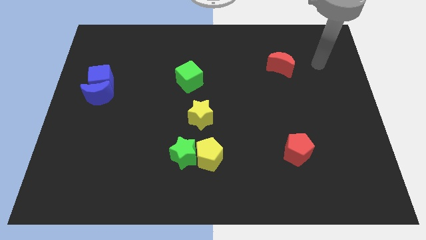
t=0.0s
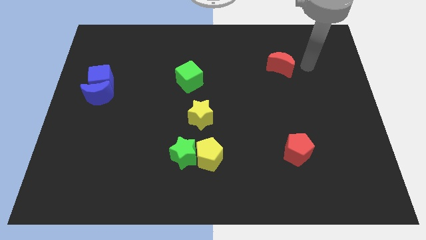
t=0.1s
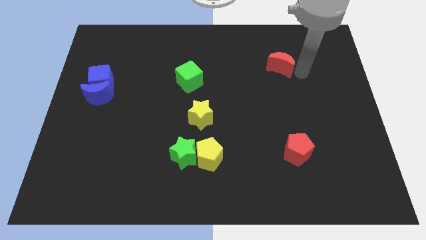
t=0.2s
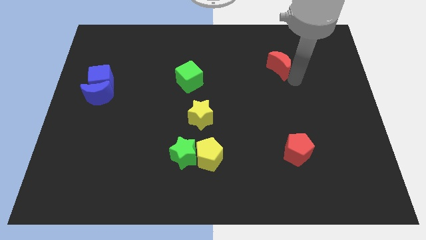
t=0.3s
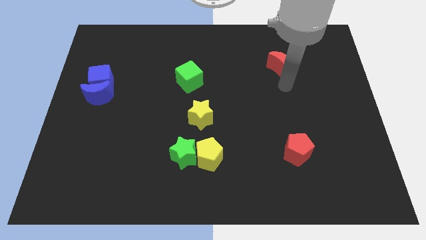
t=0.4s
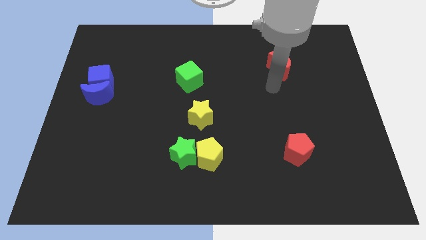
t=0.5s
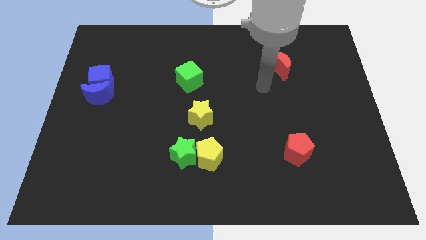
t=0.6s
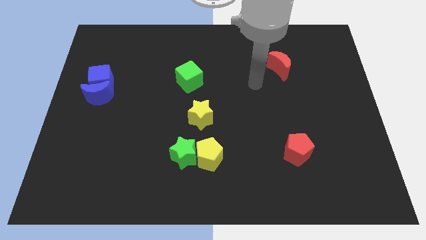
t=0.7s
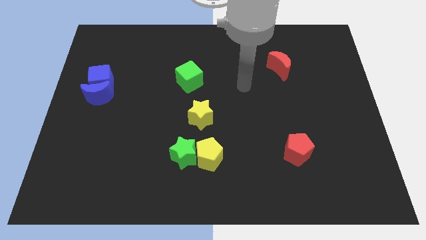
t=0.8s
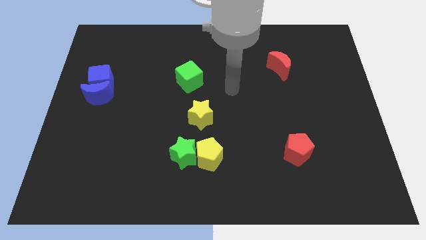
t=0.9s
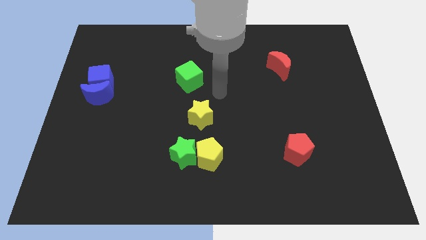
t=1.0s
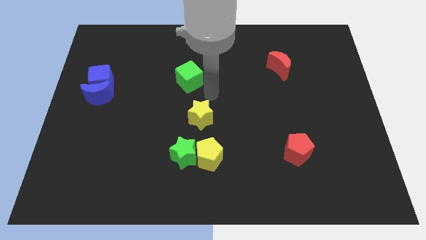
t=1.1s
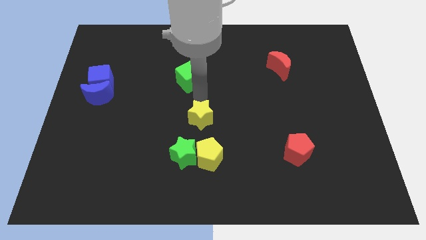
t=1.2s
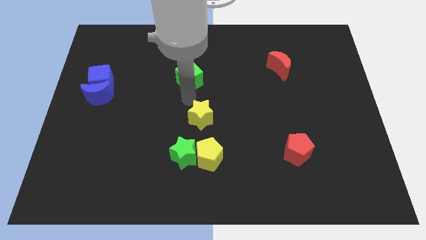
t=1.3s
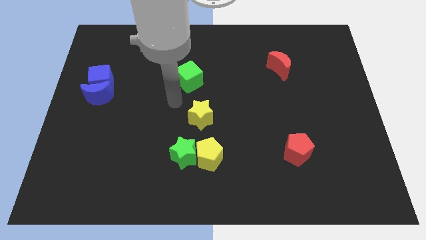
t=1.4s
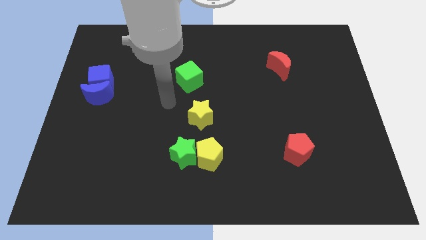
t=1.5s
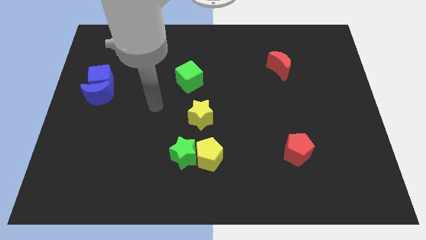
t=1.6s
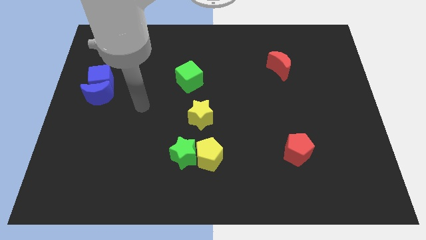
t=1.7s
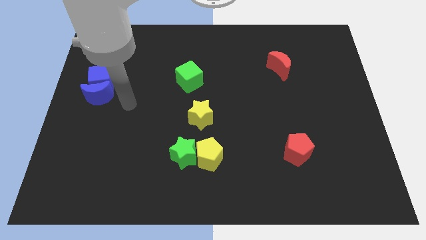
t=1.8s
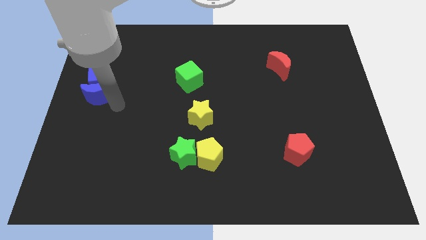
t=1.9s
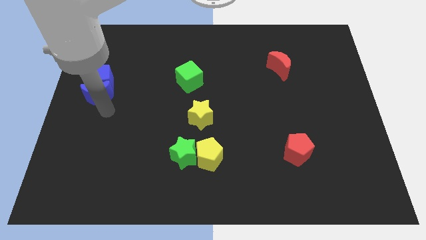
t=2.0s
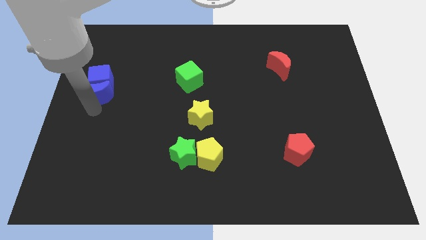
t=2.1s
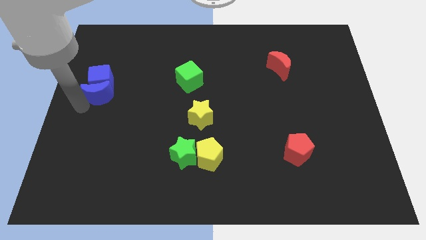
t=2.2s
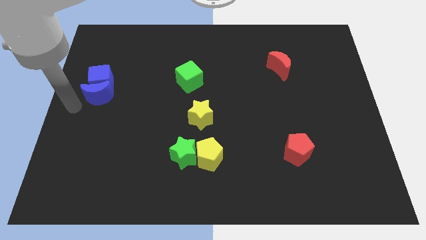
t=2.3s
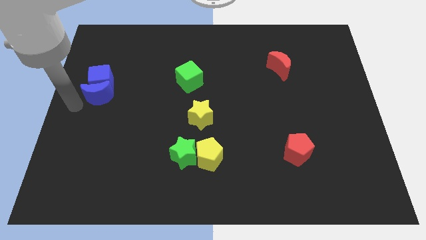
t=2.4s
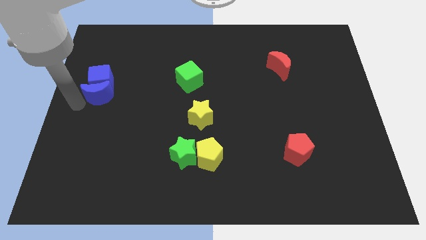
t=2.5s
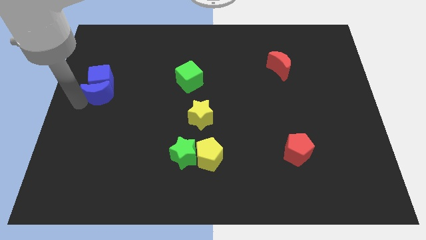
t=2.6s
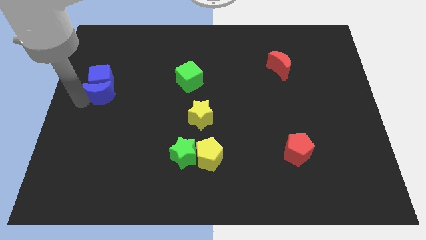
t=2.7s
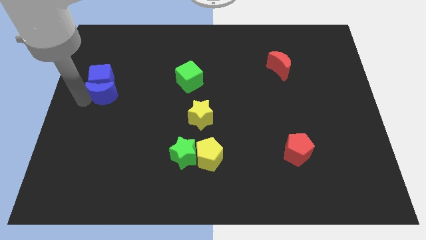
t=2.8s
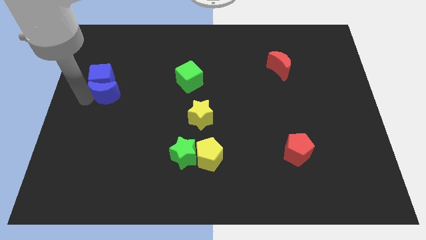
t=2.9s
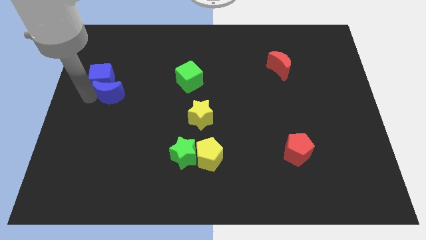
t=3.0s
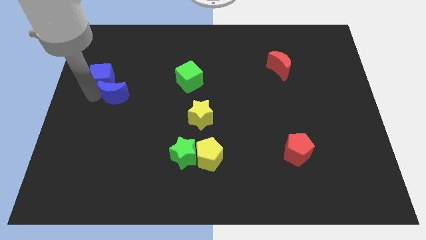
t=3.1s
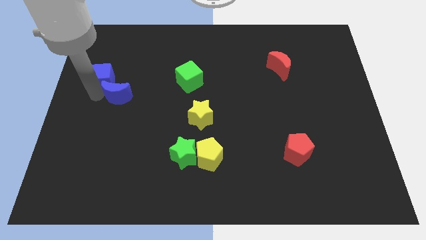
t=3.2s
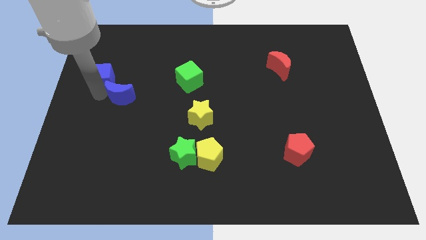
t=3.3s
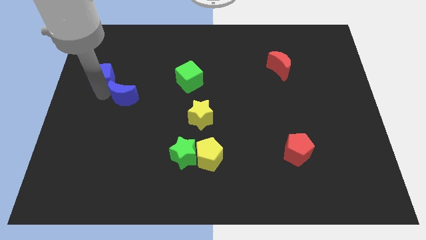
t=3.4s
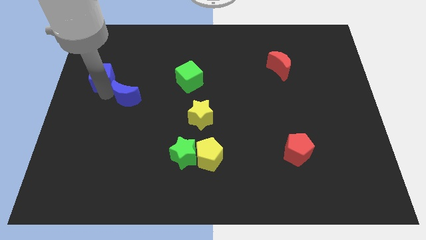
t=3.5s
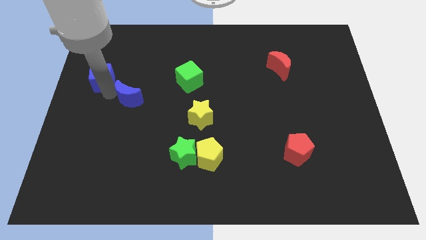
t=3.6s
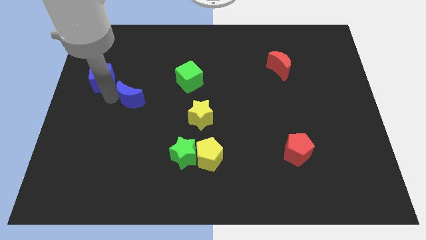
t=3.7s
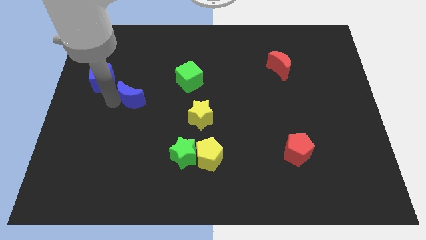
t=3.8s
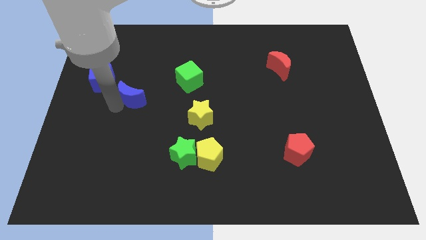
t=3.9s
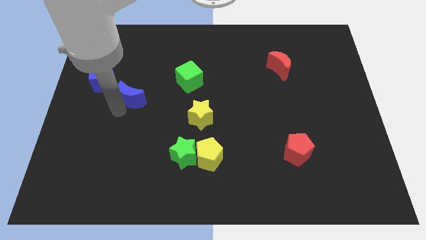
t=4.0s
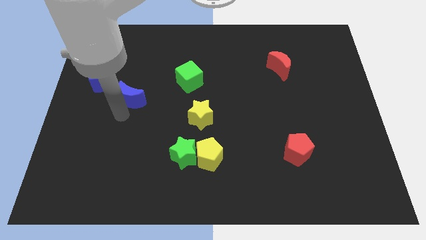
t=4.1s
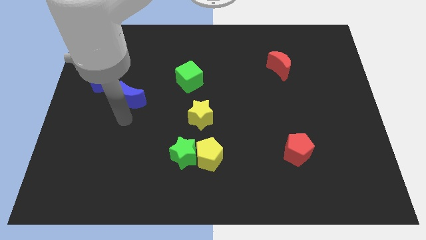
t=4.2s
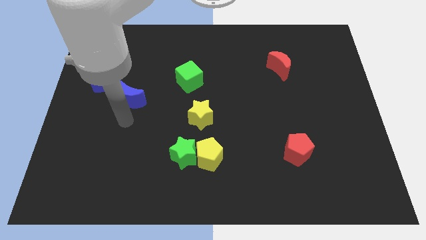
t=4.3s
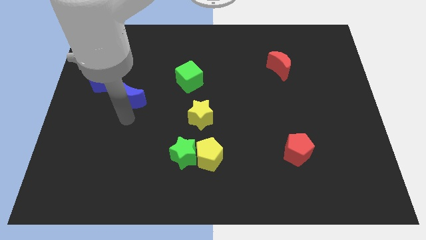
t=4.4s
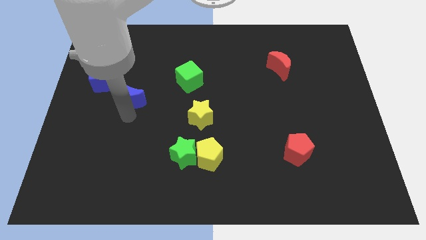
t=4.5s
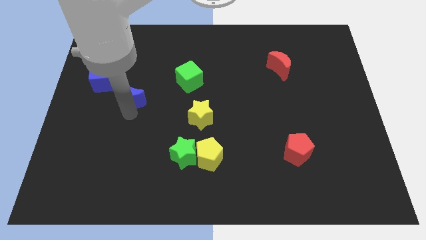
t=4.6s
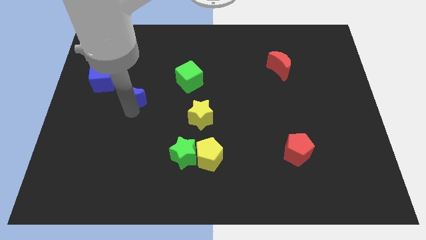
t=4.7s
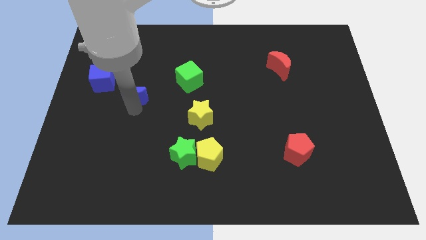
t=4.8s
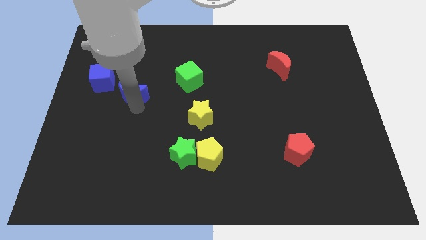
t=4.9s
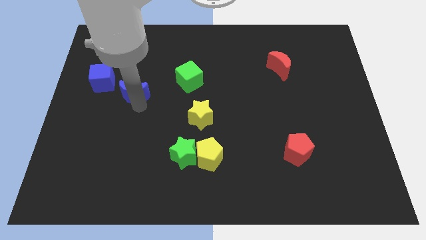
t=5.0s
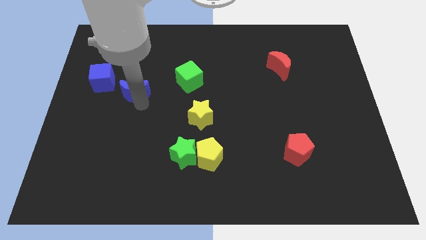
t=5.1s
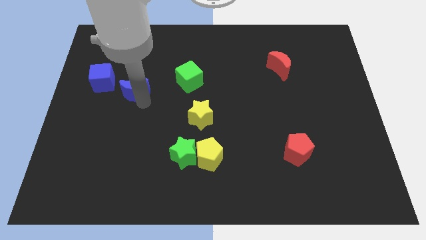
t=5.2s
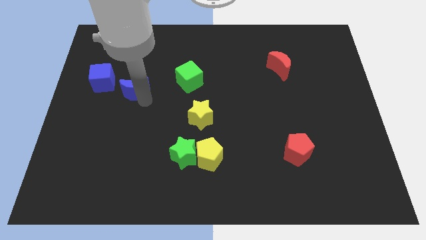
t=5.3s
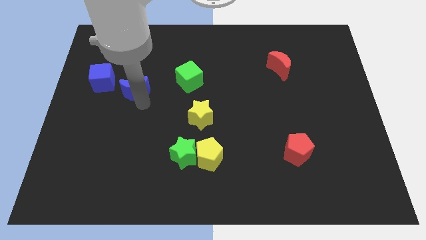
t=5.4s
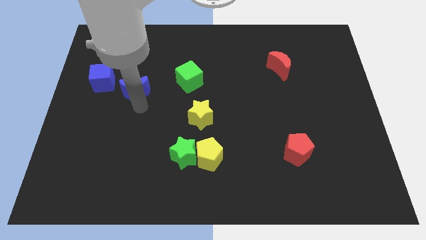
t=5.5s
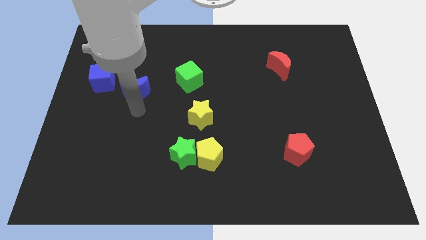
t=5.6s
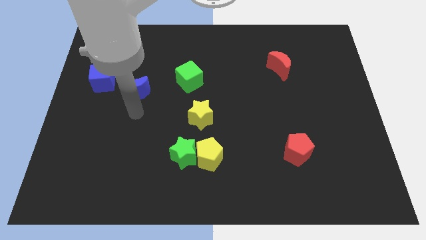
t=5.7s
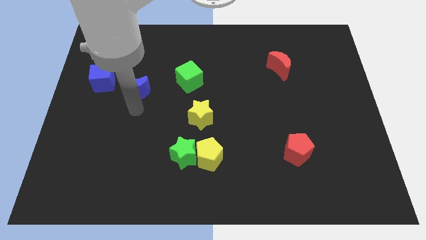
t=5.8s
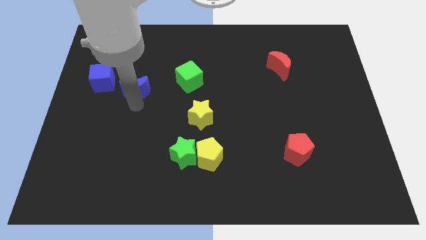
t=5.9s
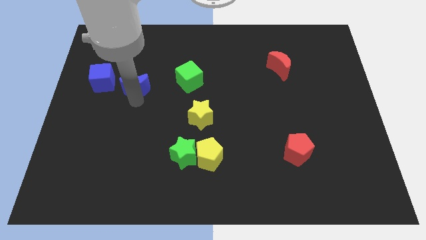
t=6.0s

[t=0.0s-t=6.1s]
move the blue moon diagonally upwards and right somewhat

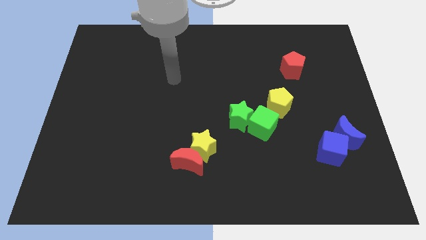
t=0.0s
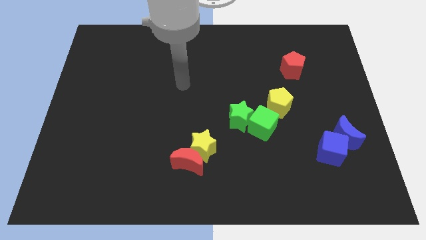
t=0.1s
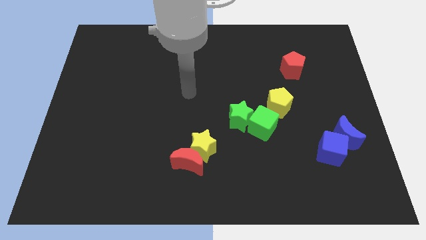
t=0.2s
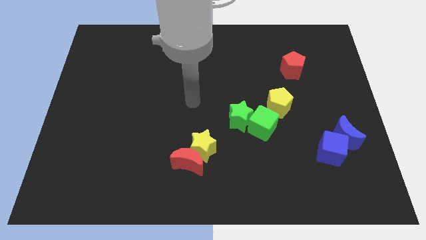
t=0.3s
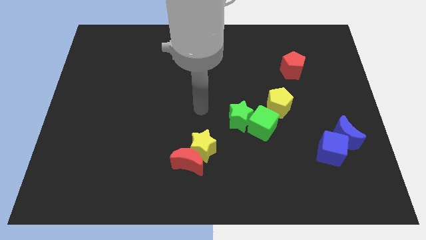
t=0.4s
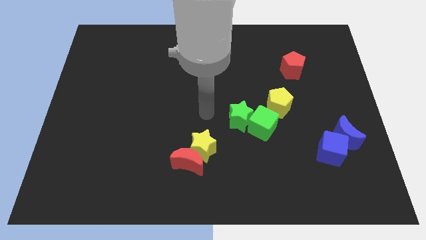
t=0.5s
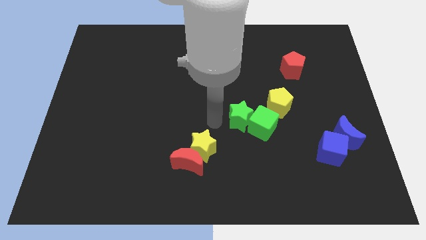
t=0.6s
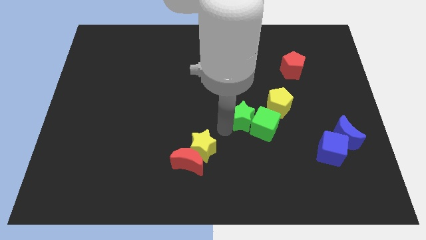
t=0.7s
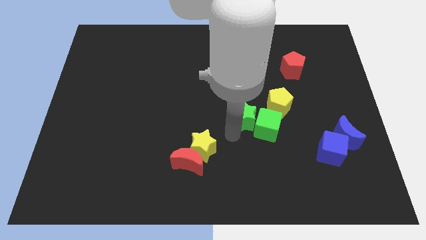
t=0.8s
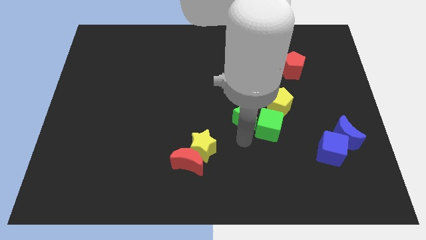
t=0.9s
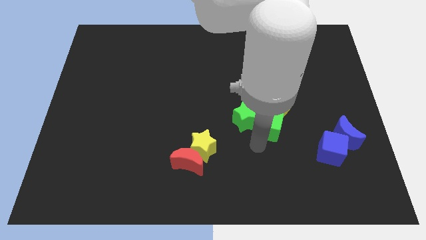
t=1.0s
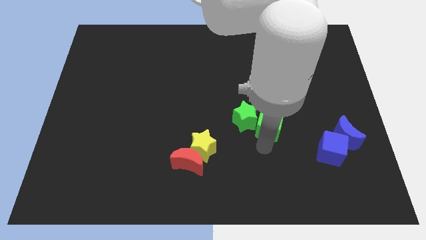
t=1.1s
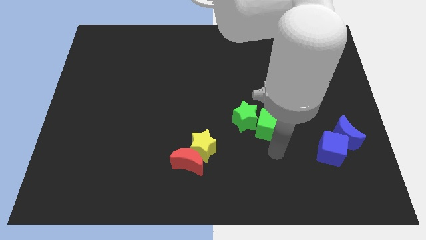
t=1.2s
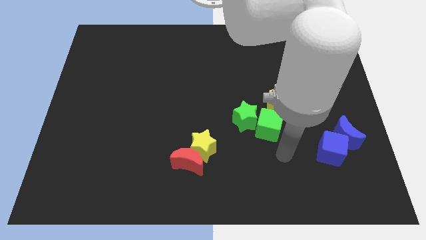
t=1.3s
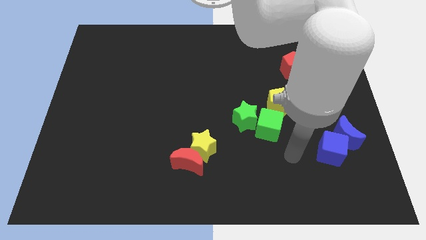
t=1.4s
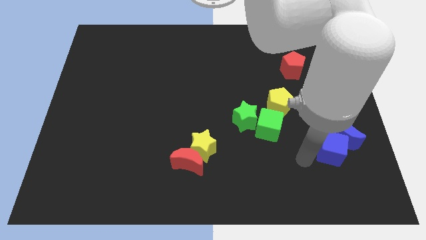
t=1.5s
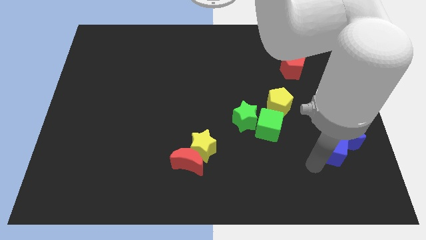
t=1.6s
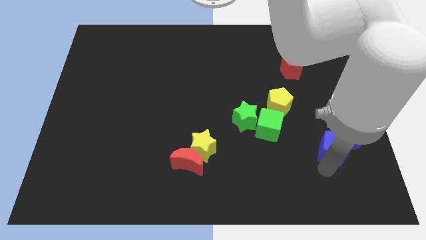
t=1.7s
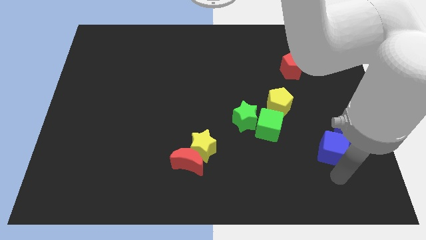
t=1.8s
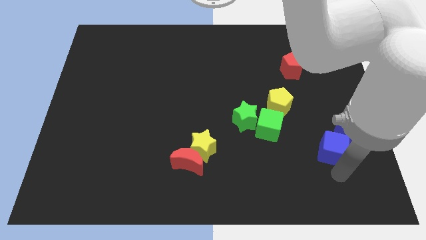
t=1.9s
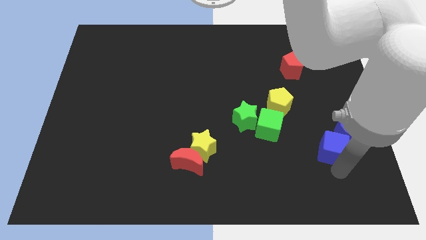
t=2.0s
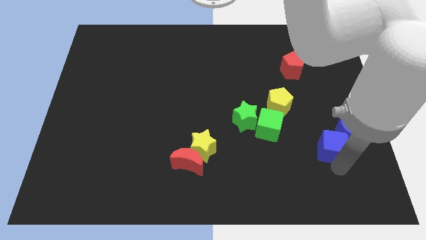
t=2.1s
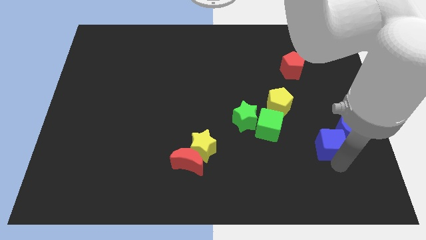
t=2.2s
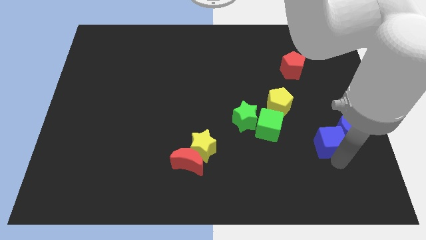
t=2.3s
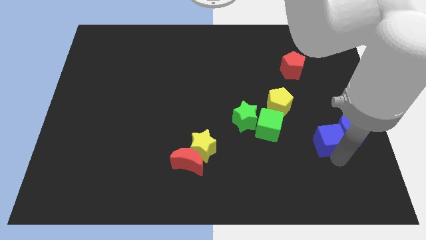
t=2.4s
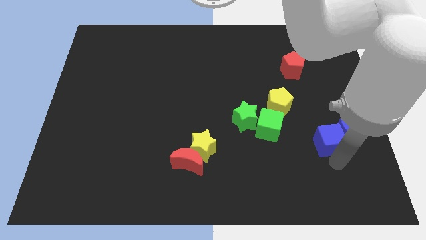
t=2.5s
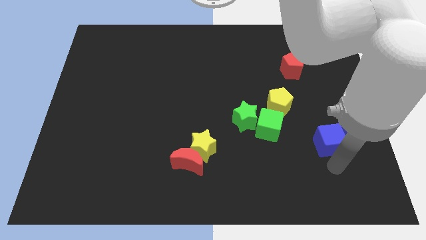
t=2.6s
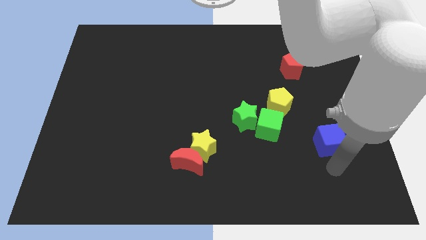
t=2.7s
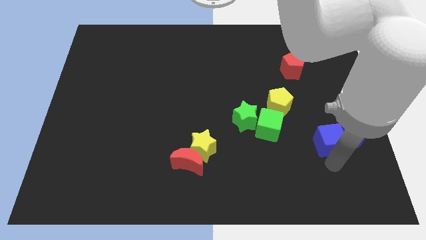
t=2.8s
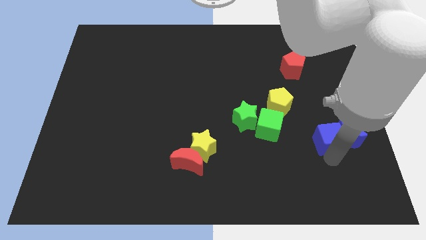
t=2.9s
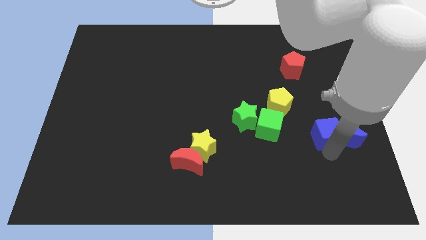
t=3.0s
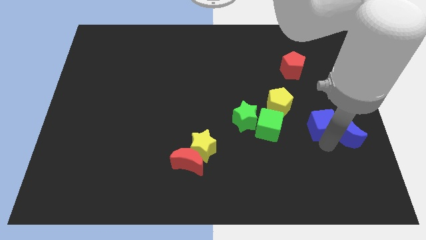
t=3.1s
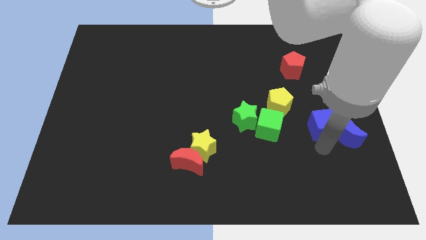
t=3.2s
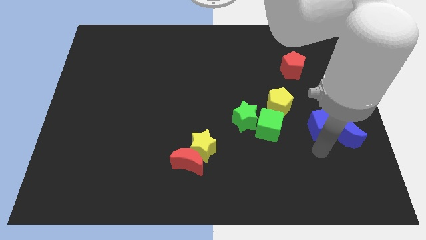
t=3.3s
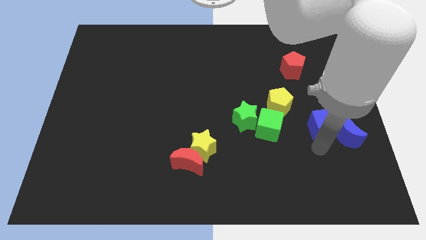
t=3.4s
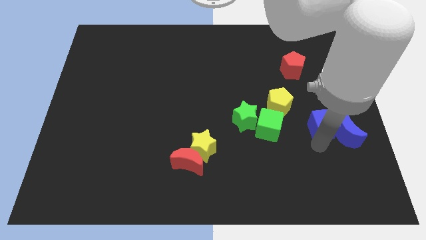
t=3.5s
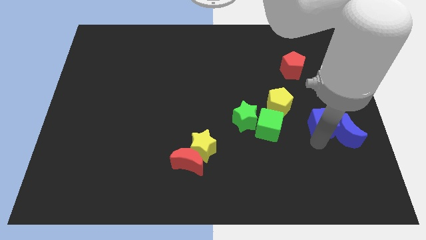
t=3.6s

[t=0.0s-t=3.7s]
slightly push the blue cube upwards
